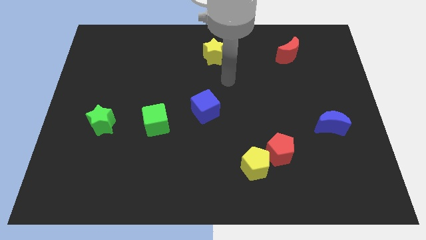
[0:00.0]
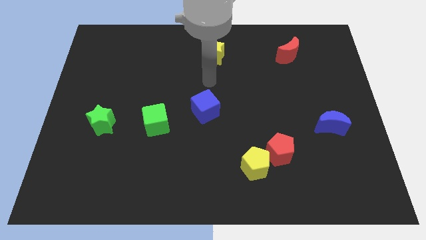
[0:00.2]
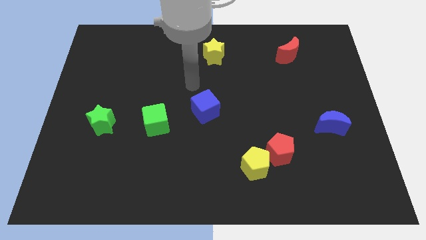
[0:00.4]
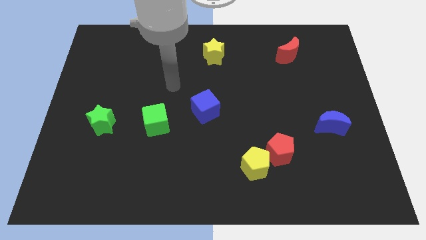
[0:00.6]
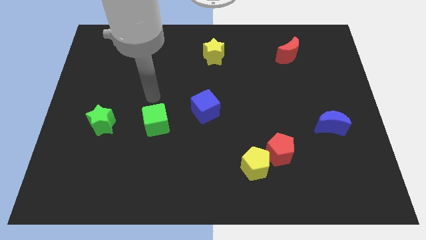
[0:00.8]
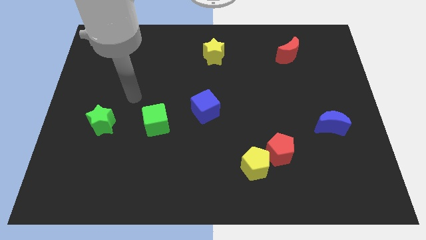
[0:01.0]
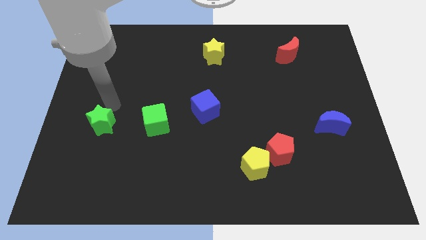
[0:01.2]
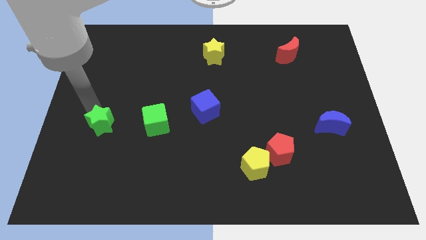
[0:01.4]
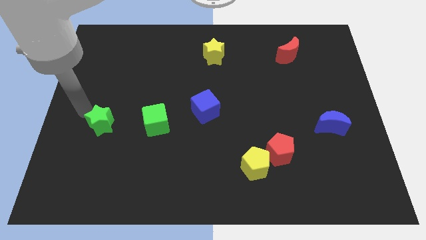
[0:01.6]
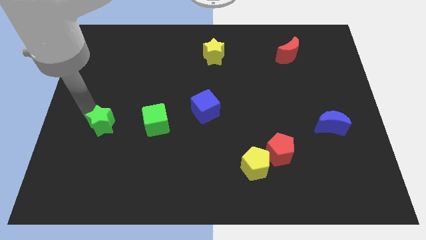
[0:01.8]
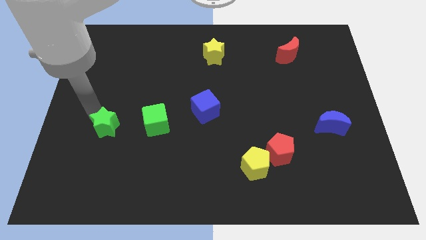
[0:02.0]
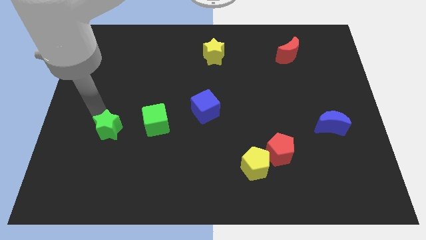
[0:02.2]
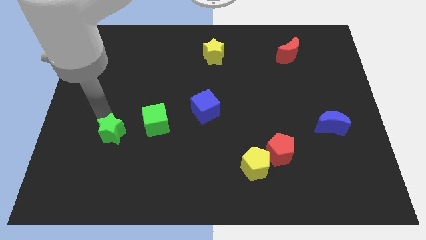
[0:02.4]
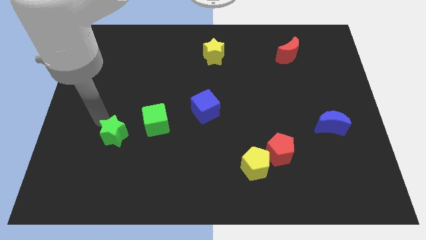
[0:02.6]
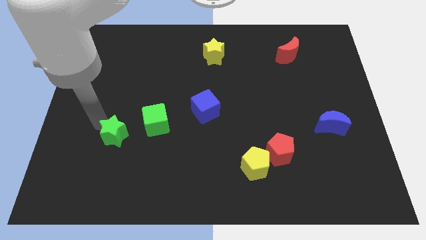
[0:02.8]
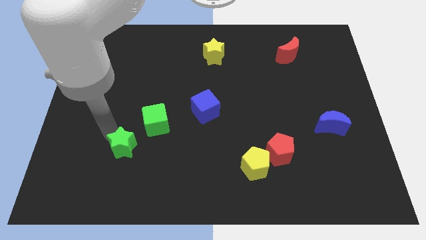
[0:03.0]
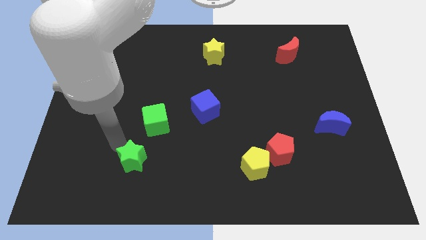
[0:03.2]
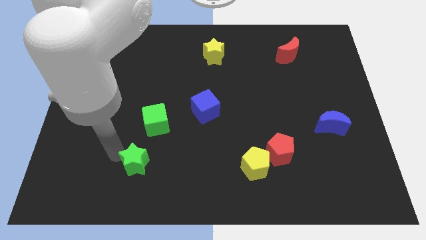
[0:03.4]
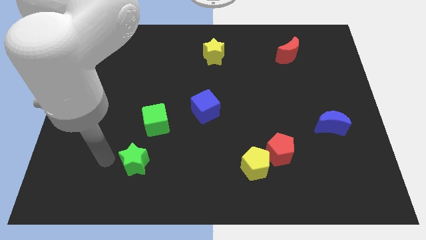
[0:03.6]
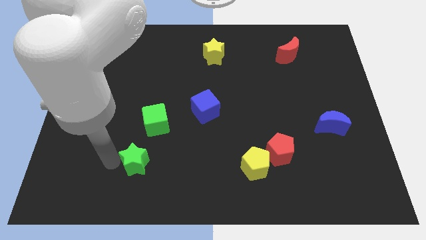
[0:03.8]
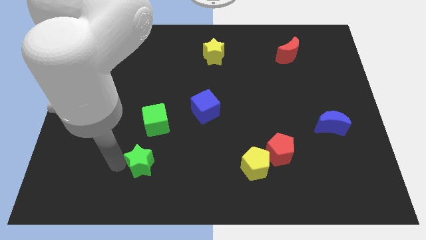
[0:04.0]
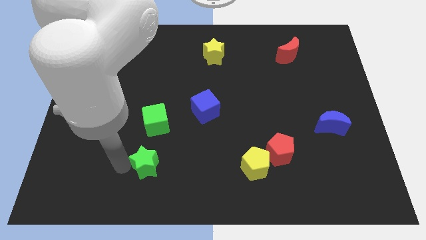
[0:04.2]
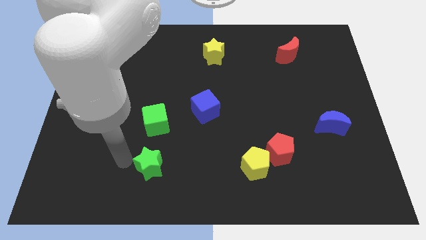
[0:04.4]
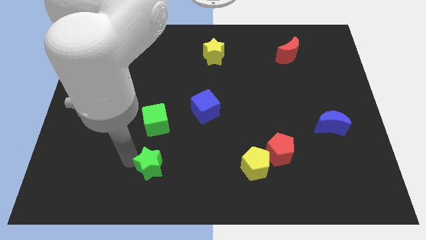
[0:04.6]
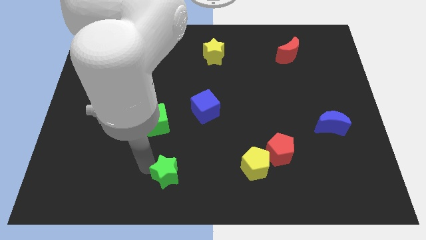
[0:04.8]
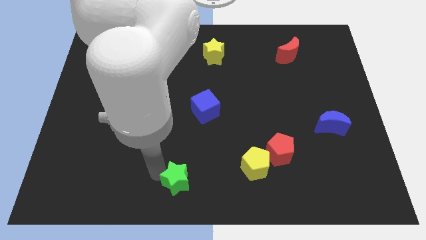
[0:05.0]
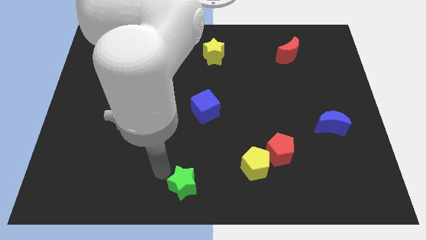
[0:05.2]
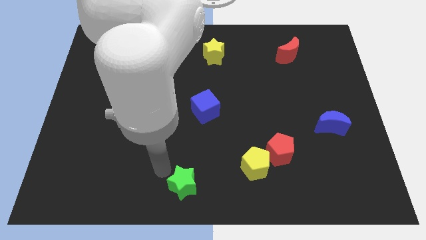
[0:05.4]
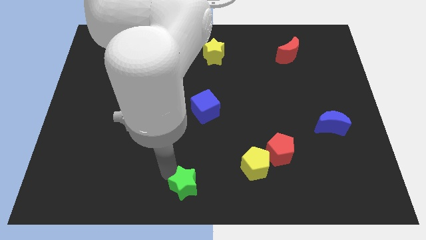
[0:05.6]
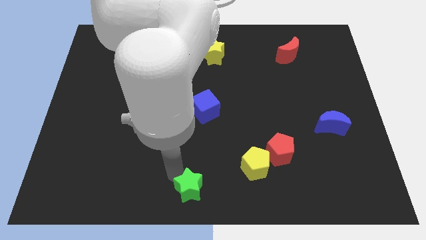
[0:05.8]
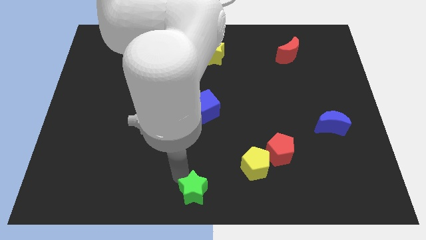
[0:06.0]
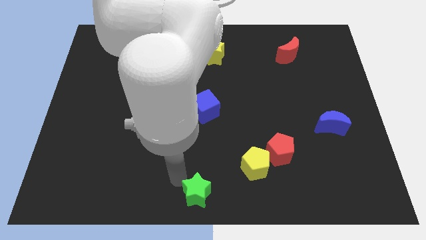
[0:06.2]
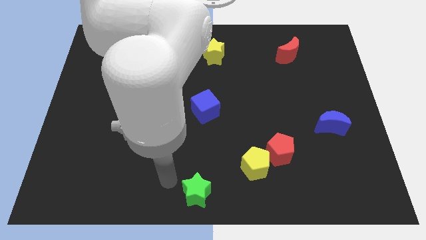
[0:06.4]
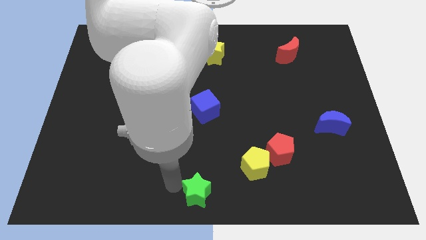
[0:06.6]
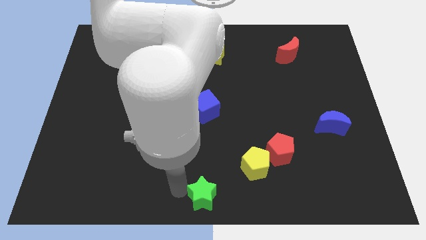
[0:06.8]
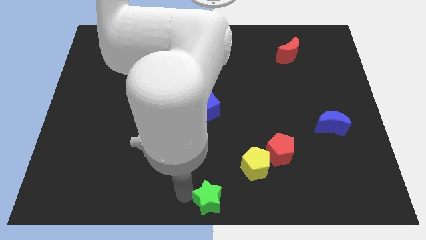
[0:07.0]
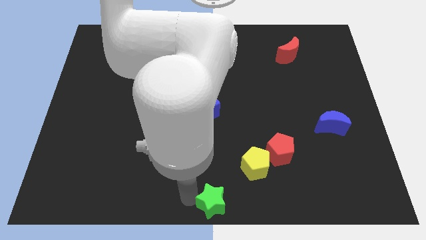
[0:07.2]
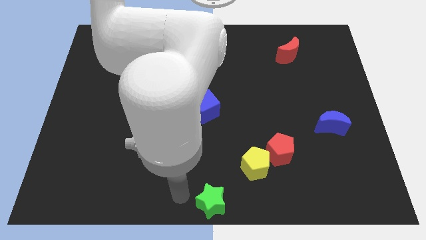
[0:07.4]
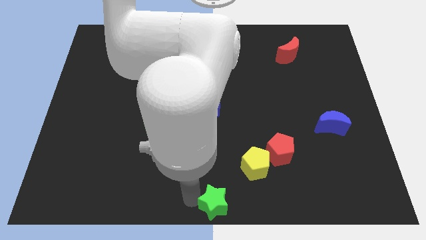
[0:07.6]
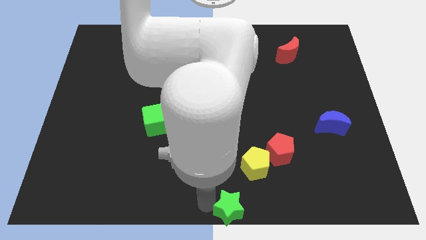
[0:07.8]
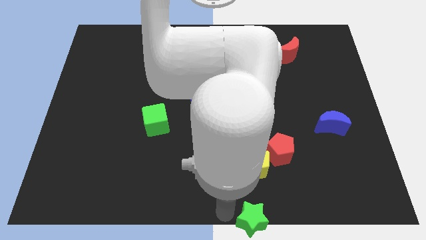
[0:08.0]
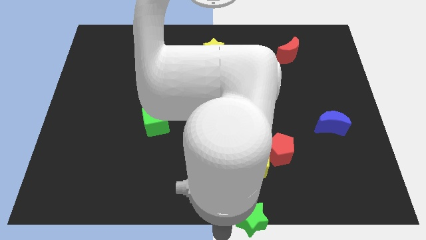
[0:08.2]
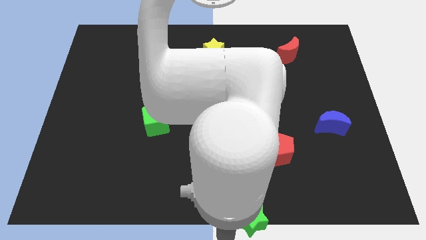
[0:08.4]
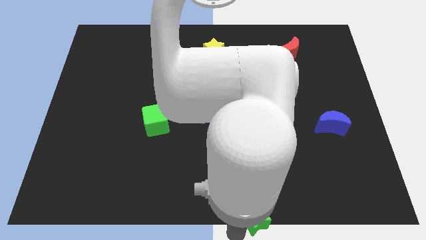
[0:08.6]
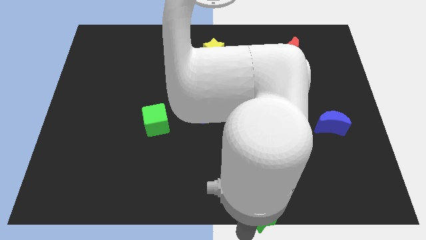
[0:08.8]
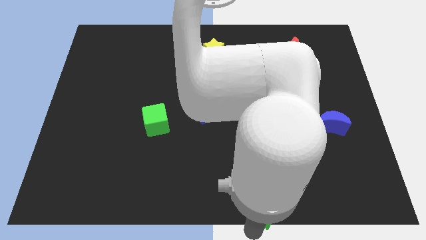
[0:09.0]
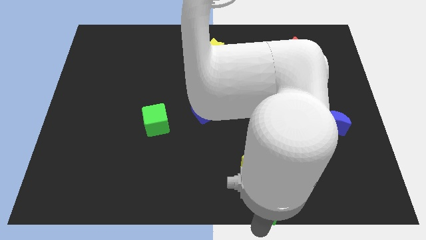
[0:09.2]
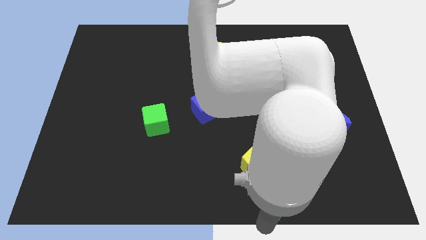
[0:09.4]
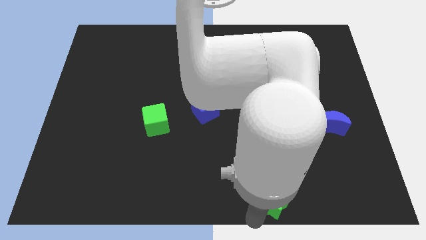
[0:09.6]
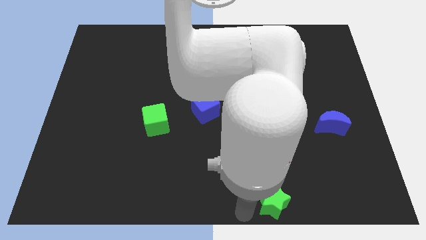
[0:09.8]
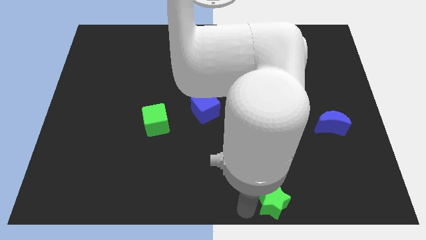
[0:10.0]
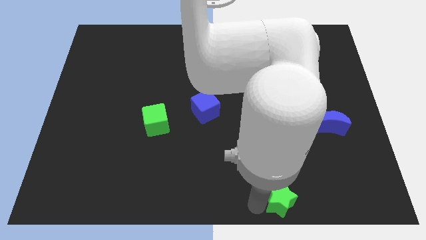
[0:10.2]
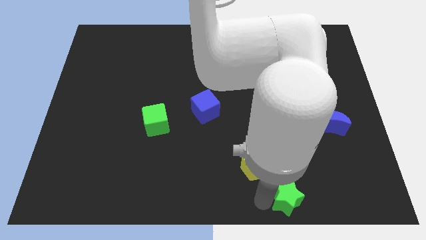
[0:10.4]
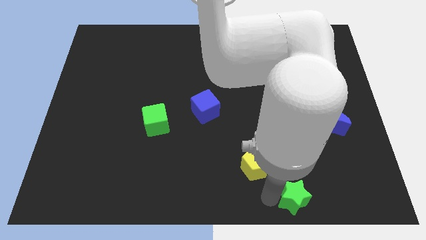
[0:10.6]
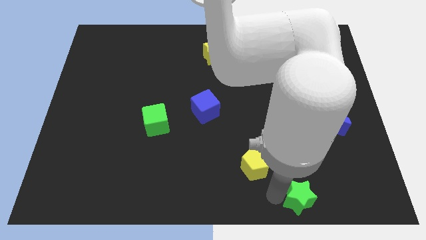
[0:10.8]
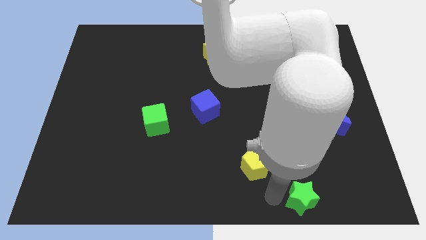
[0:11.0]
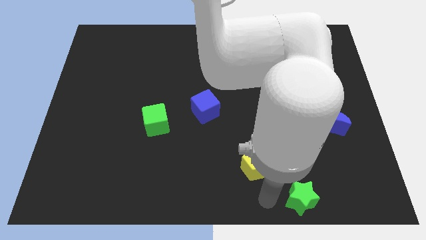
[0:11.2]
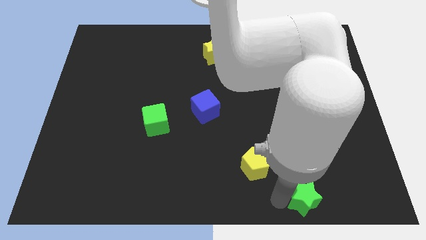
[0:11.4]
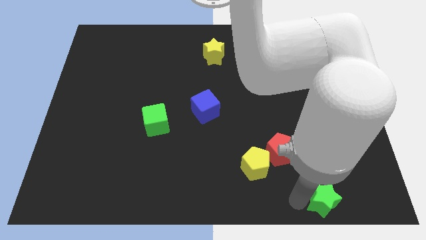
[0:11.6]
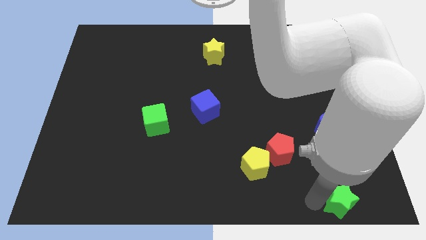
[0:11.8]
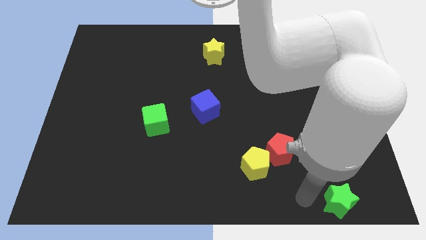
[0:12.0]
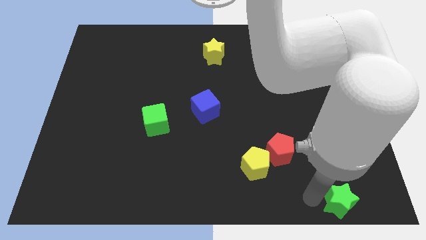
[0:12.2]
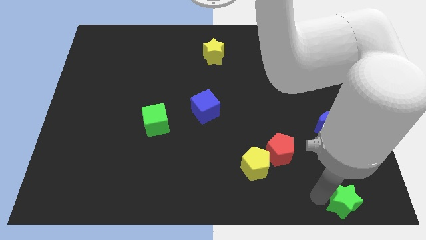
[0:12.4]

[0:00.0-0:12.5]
push the green star to the bottom right of the board

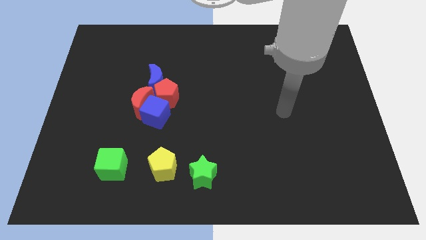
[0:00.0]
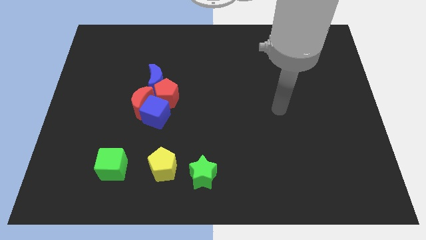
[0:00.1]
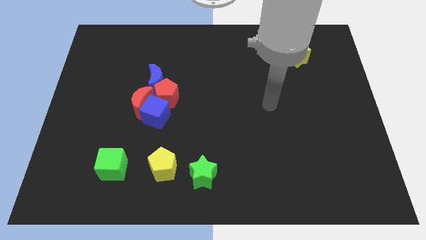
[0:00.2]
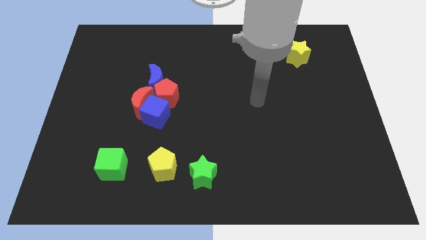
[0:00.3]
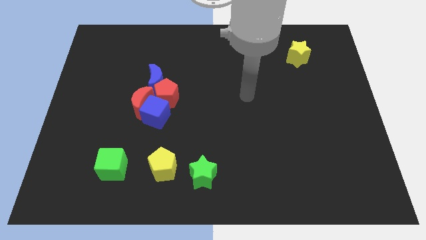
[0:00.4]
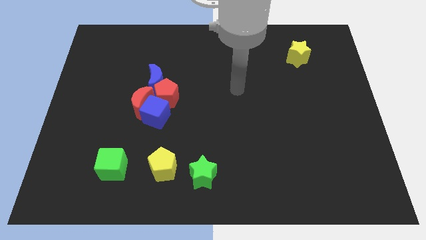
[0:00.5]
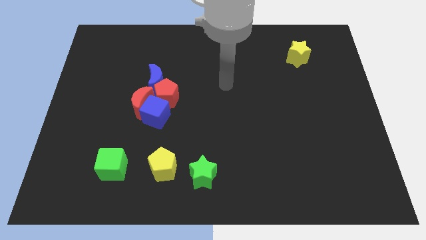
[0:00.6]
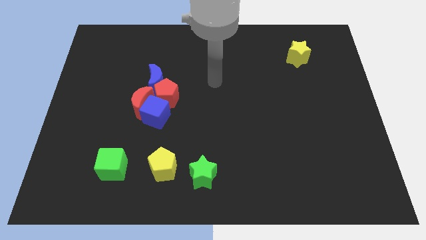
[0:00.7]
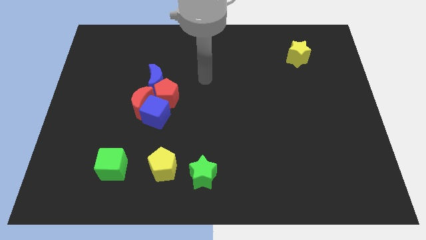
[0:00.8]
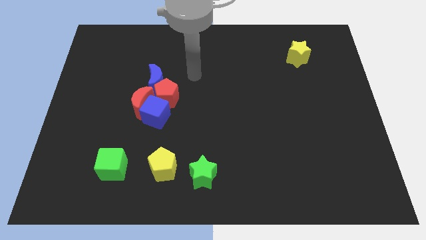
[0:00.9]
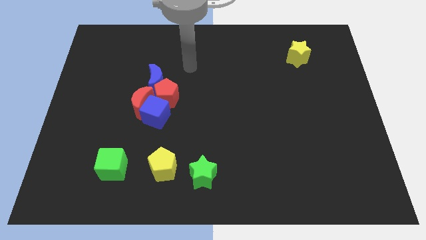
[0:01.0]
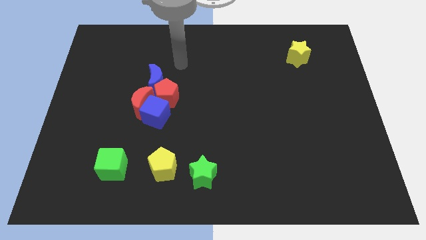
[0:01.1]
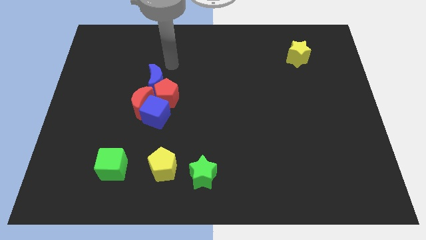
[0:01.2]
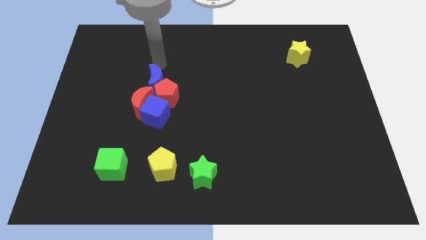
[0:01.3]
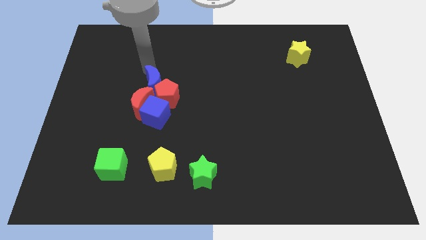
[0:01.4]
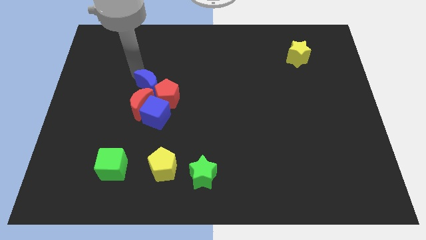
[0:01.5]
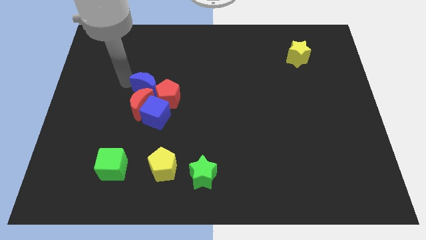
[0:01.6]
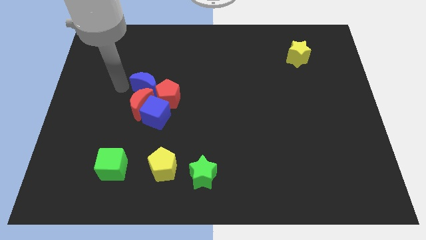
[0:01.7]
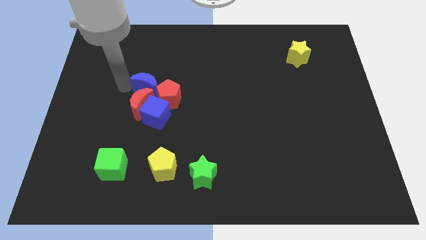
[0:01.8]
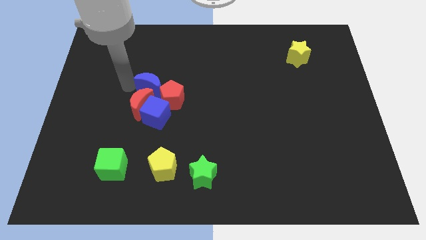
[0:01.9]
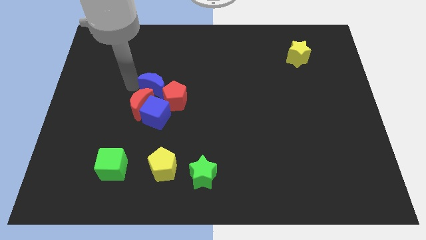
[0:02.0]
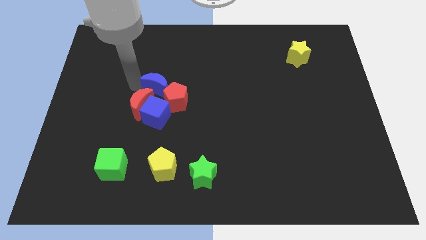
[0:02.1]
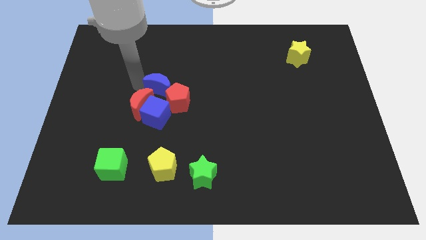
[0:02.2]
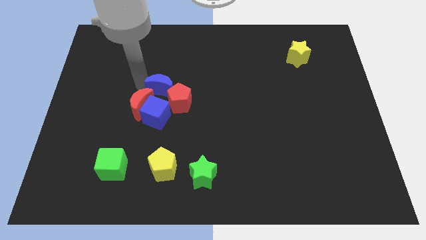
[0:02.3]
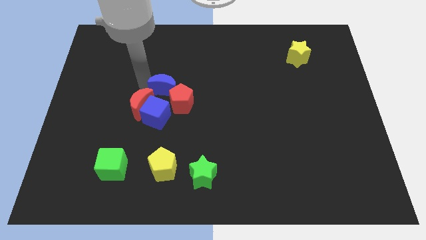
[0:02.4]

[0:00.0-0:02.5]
slide the blue moon to the center
